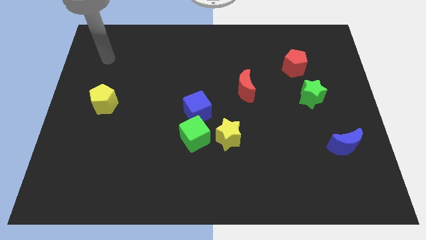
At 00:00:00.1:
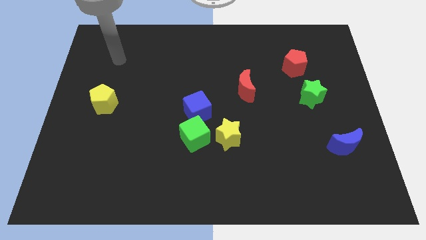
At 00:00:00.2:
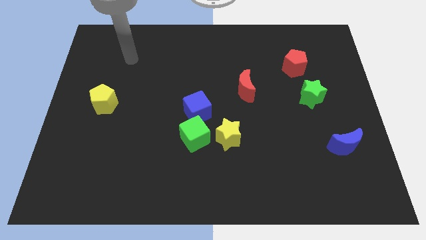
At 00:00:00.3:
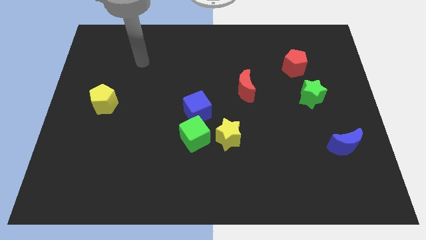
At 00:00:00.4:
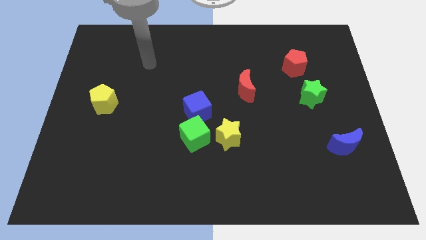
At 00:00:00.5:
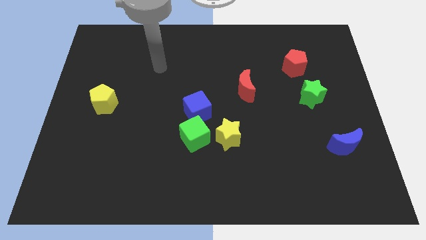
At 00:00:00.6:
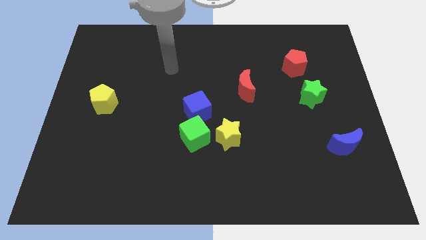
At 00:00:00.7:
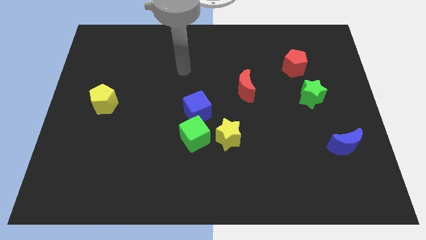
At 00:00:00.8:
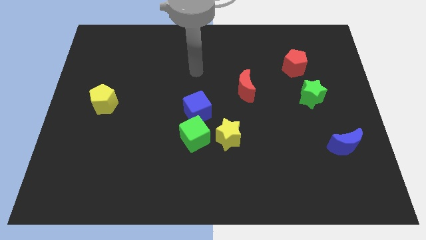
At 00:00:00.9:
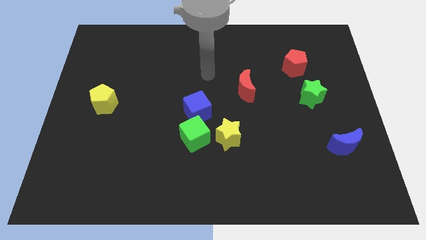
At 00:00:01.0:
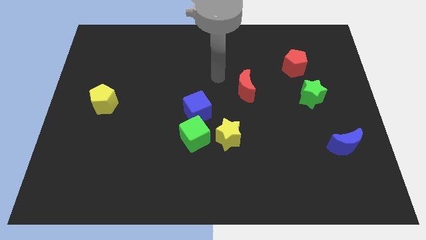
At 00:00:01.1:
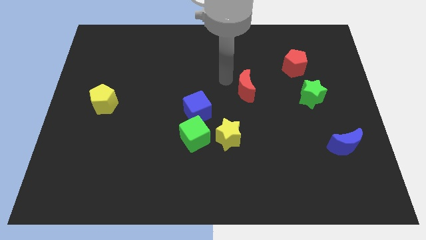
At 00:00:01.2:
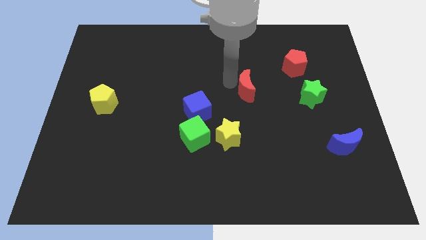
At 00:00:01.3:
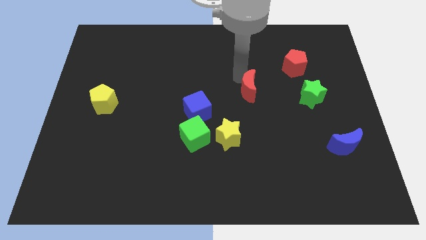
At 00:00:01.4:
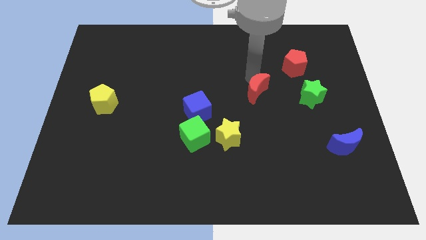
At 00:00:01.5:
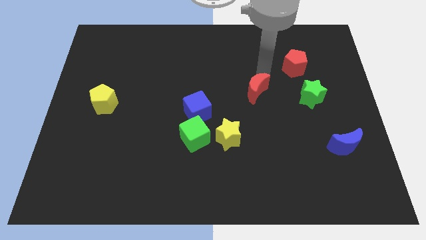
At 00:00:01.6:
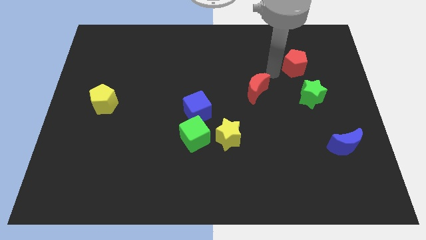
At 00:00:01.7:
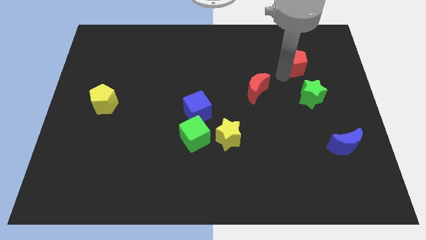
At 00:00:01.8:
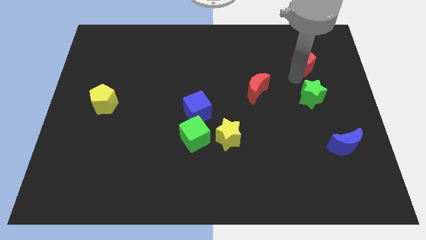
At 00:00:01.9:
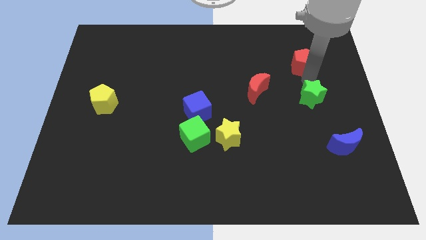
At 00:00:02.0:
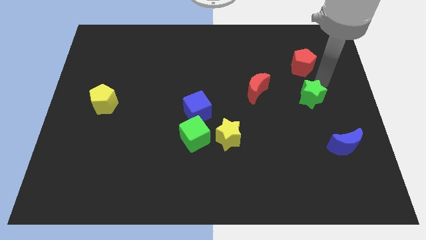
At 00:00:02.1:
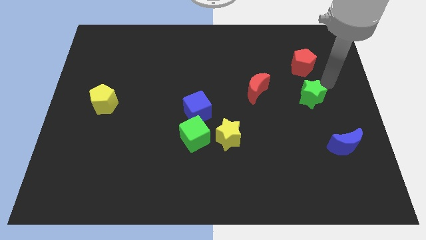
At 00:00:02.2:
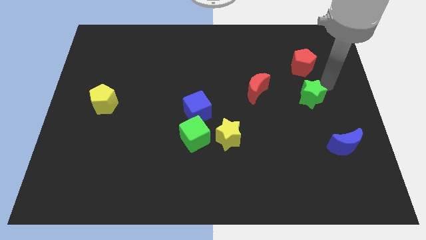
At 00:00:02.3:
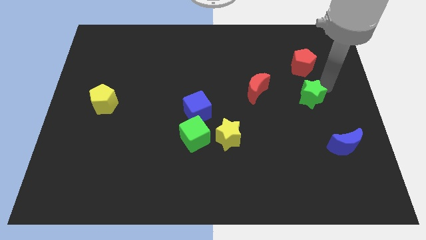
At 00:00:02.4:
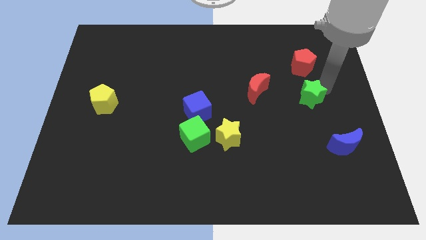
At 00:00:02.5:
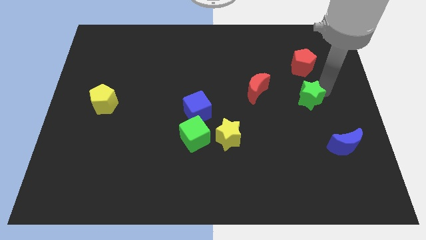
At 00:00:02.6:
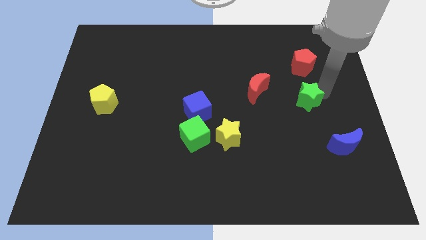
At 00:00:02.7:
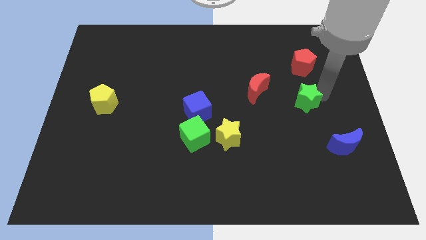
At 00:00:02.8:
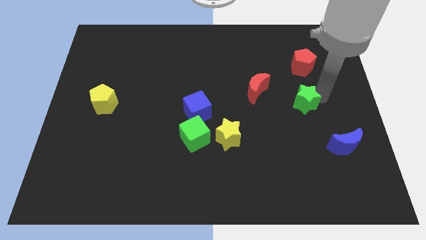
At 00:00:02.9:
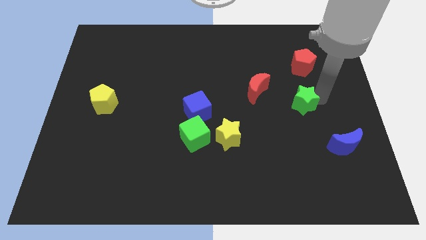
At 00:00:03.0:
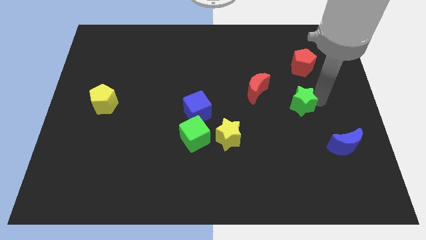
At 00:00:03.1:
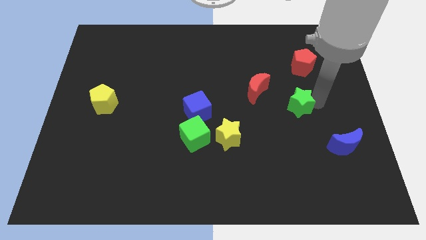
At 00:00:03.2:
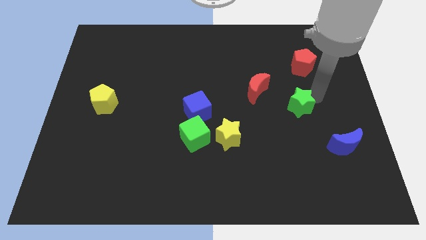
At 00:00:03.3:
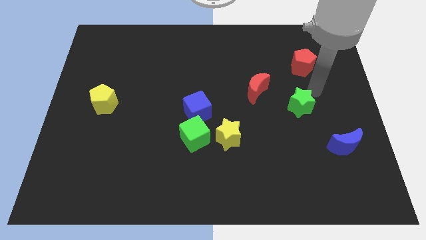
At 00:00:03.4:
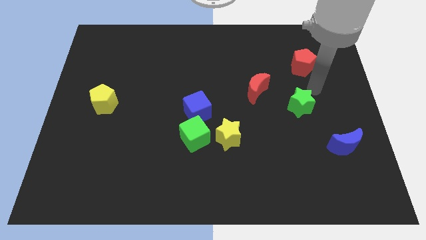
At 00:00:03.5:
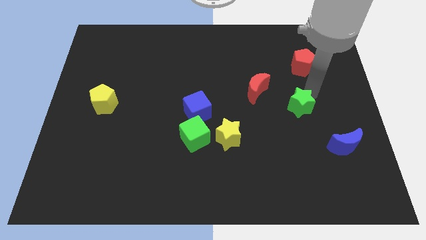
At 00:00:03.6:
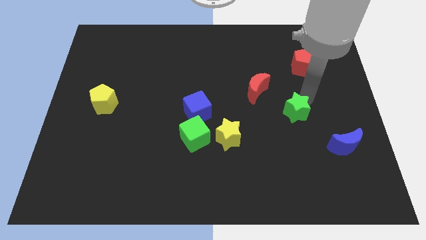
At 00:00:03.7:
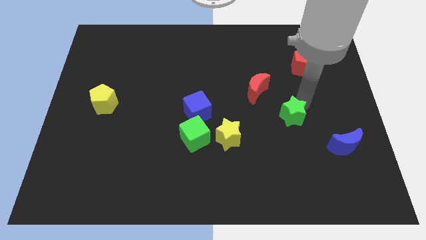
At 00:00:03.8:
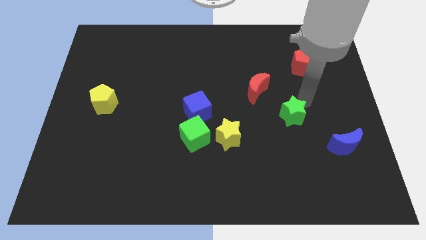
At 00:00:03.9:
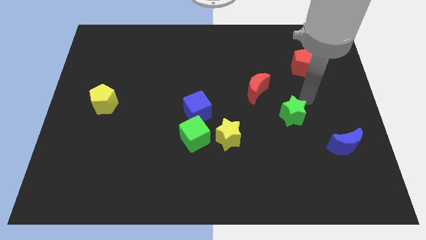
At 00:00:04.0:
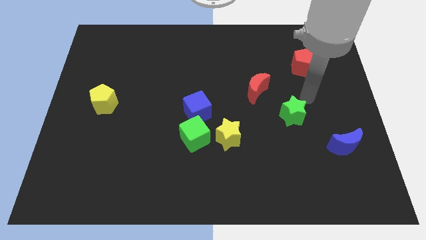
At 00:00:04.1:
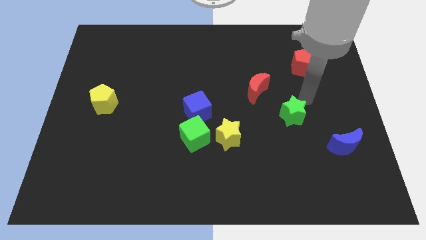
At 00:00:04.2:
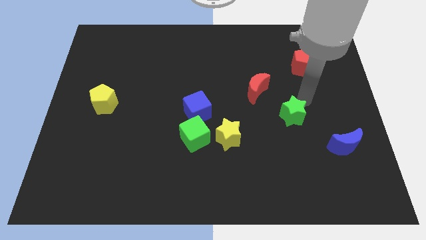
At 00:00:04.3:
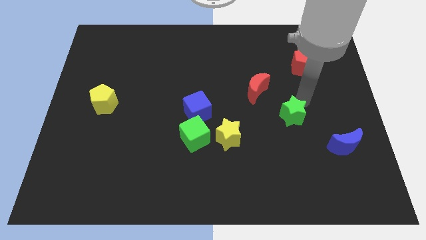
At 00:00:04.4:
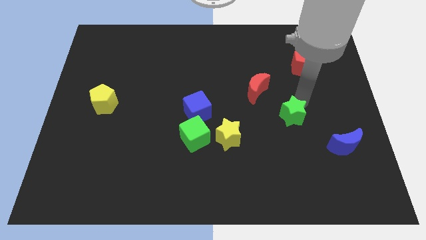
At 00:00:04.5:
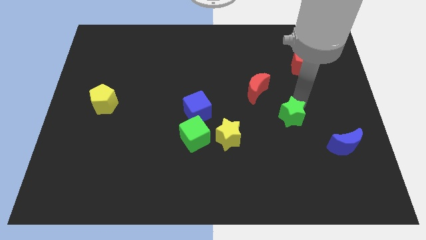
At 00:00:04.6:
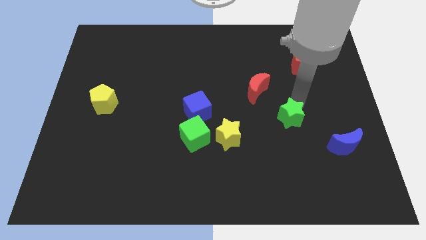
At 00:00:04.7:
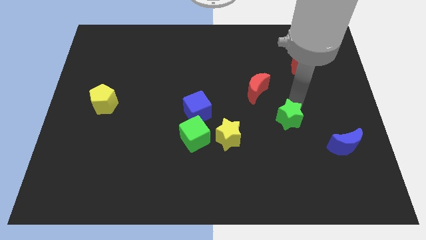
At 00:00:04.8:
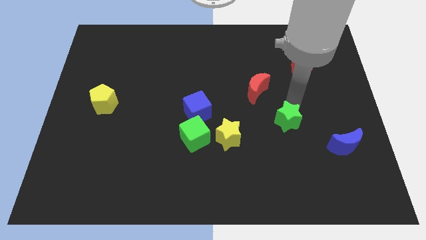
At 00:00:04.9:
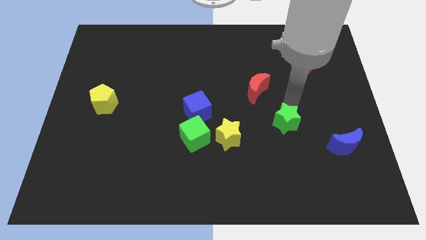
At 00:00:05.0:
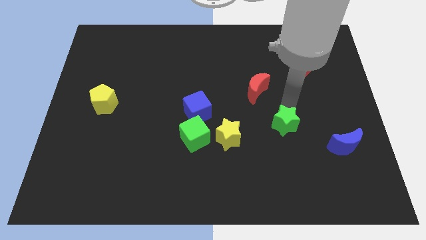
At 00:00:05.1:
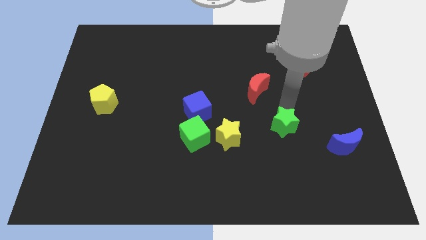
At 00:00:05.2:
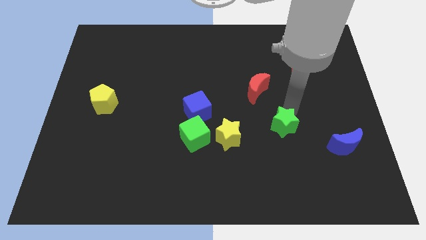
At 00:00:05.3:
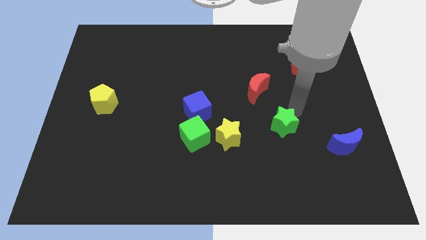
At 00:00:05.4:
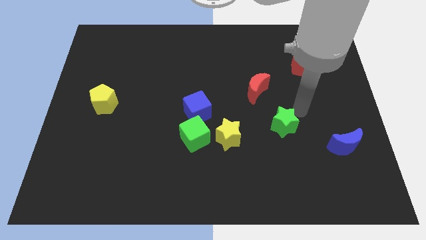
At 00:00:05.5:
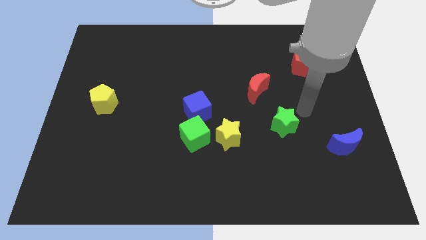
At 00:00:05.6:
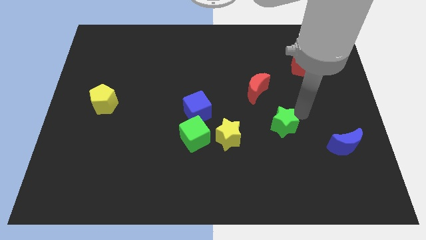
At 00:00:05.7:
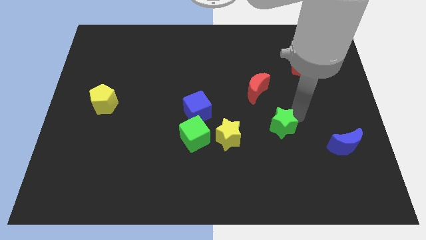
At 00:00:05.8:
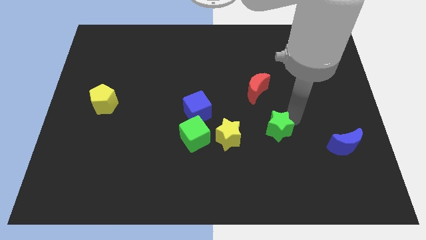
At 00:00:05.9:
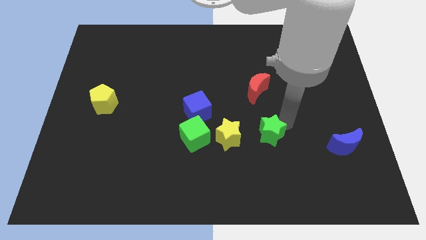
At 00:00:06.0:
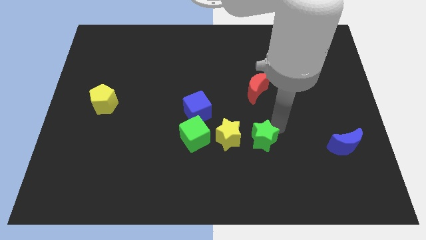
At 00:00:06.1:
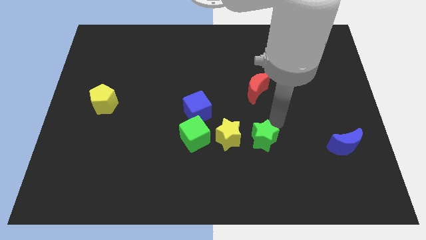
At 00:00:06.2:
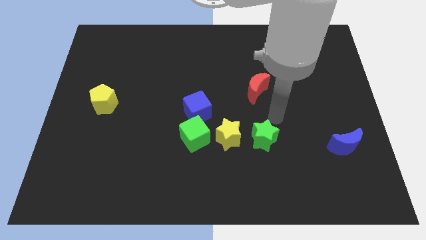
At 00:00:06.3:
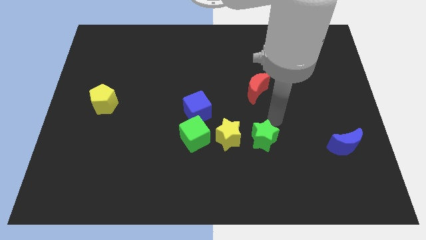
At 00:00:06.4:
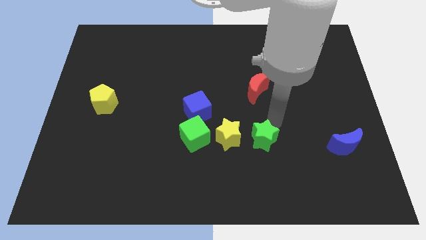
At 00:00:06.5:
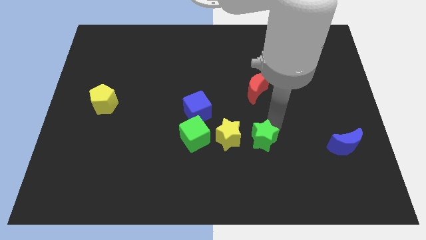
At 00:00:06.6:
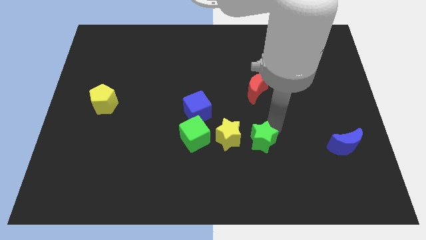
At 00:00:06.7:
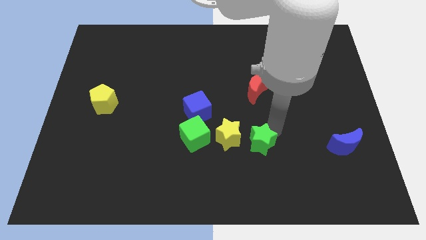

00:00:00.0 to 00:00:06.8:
put the green star to the bottom right side of the yellow star
